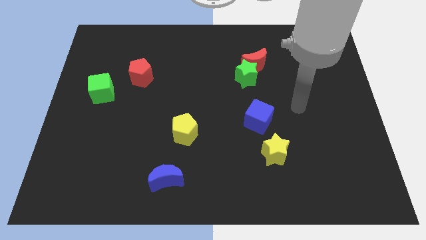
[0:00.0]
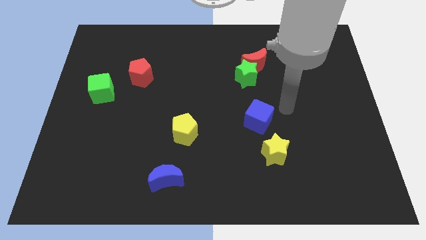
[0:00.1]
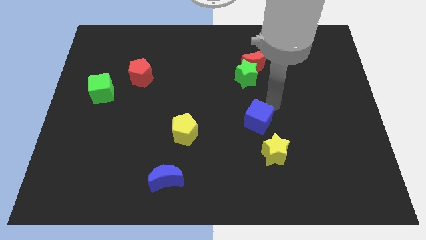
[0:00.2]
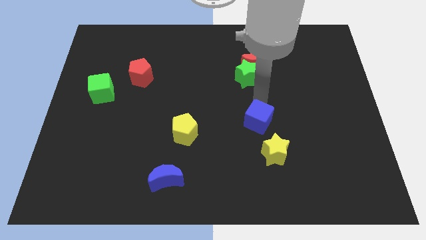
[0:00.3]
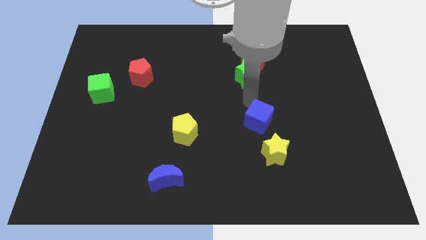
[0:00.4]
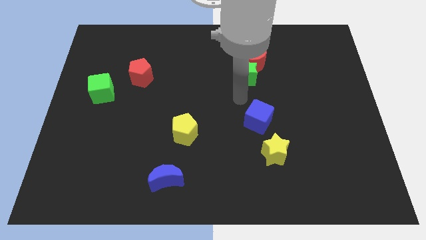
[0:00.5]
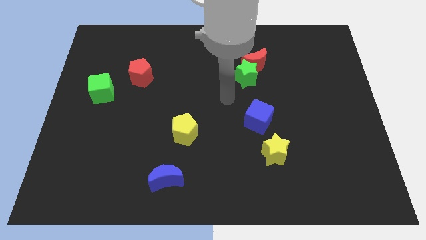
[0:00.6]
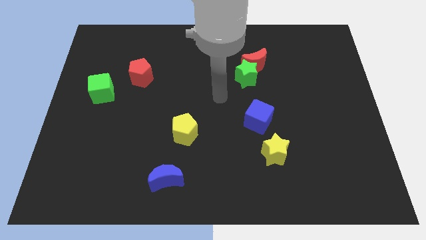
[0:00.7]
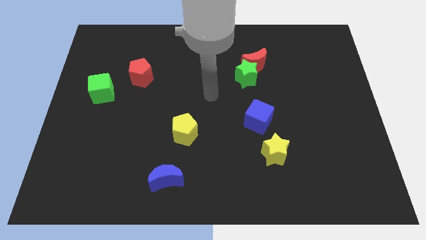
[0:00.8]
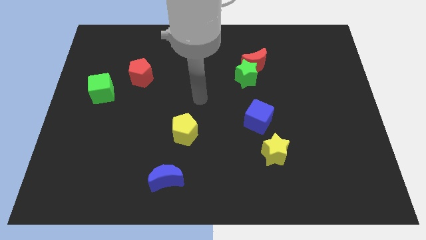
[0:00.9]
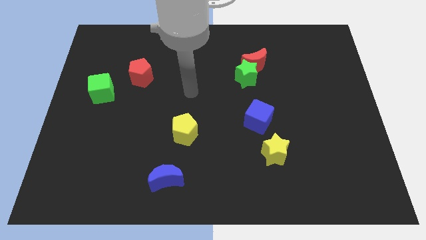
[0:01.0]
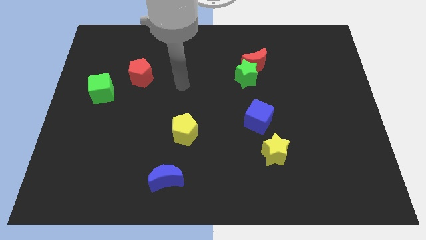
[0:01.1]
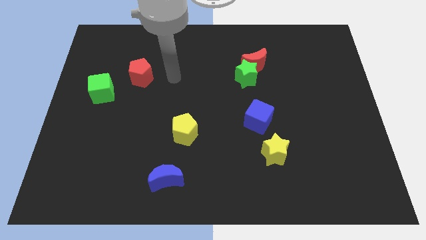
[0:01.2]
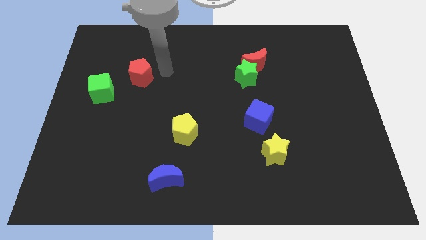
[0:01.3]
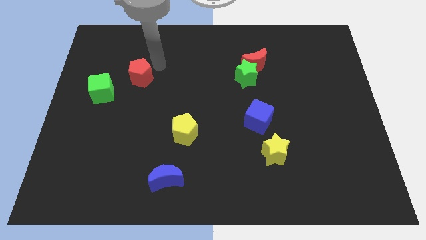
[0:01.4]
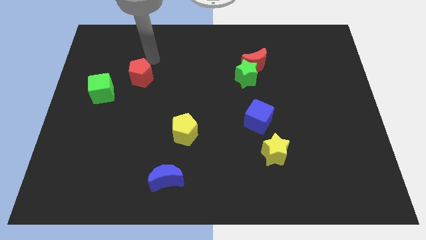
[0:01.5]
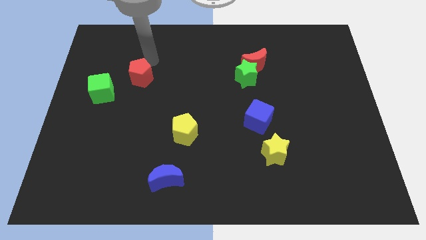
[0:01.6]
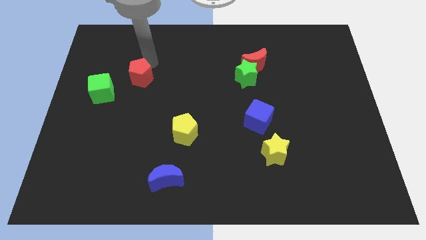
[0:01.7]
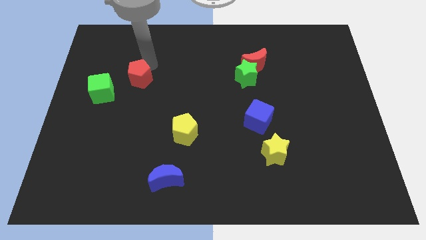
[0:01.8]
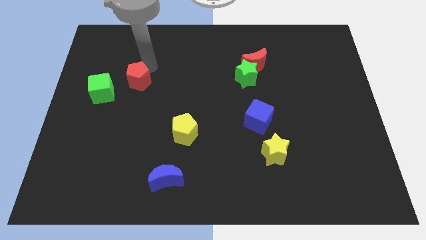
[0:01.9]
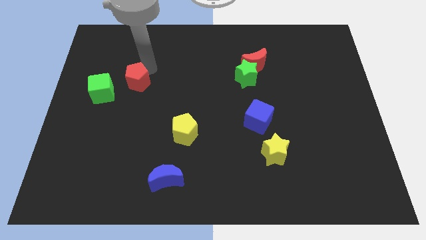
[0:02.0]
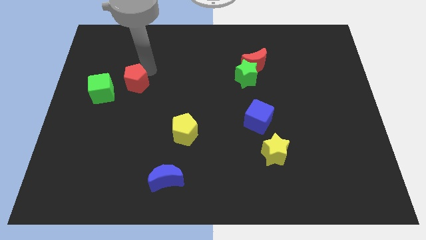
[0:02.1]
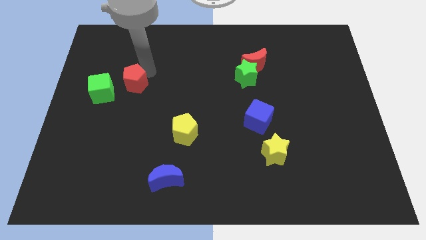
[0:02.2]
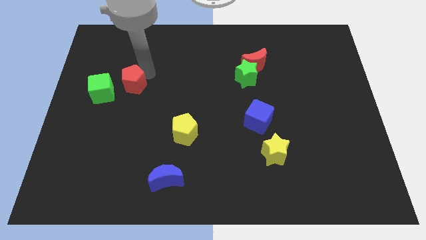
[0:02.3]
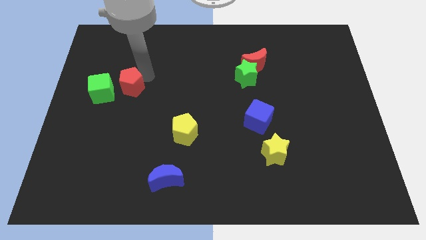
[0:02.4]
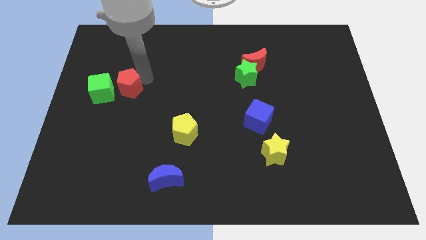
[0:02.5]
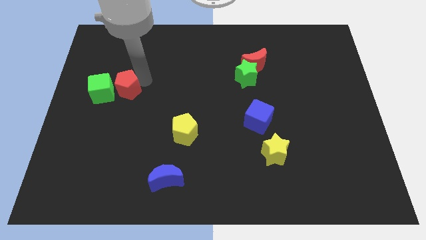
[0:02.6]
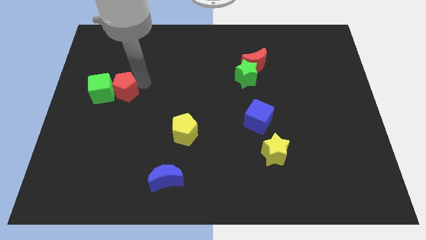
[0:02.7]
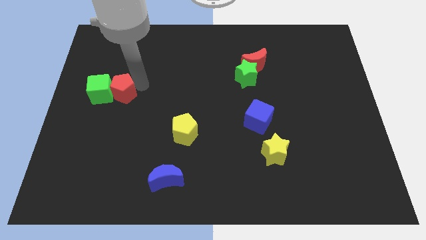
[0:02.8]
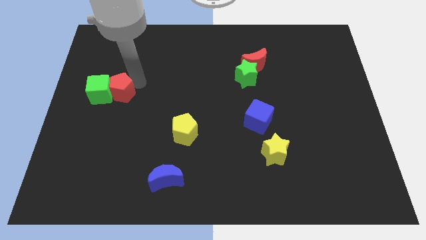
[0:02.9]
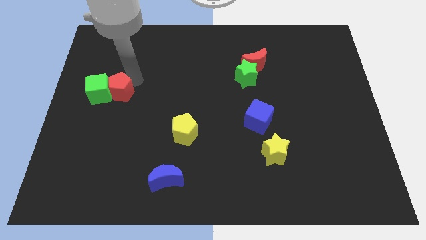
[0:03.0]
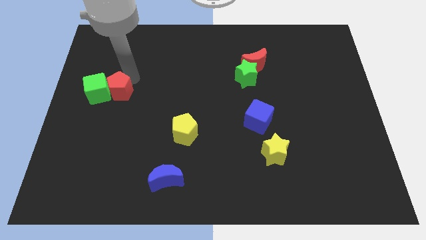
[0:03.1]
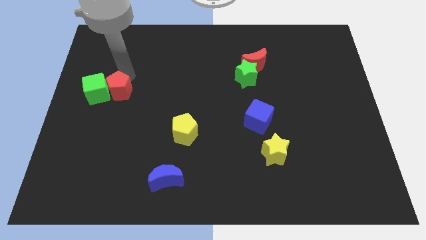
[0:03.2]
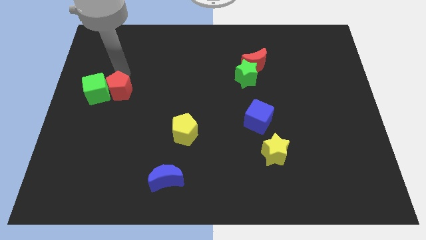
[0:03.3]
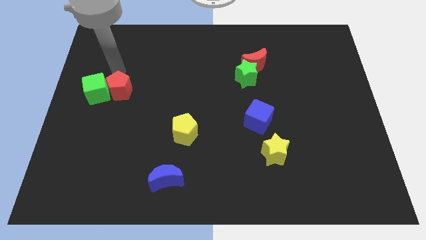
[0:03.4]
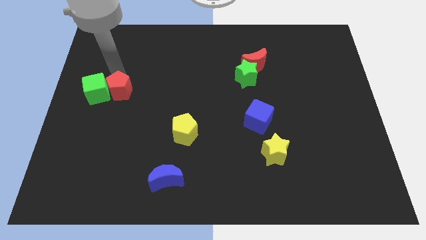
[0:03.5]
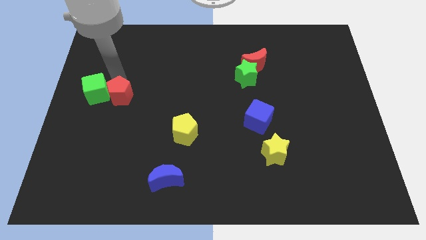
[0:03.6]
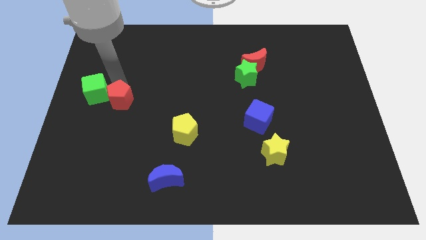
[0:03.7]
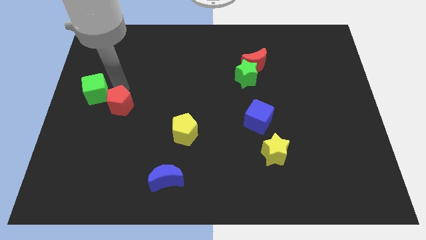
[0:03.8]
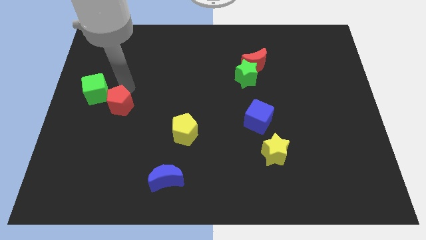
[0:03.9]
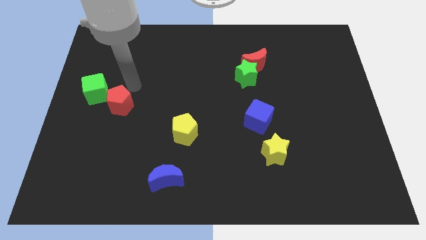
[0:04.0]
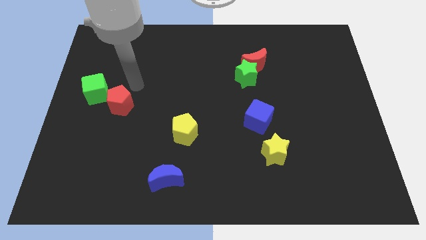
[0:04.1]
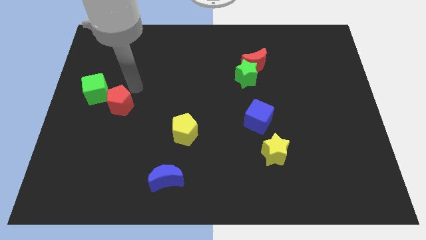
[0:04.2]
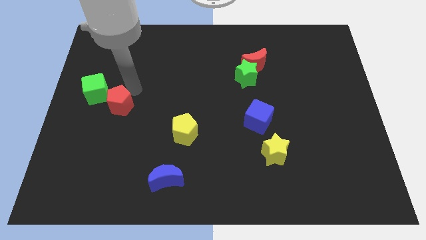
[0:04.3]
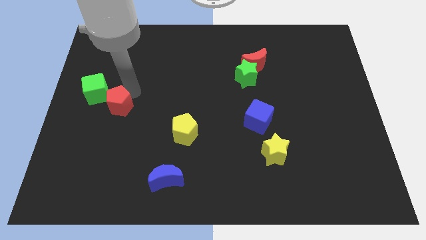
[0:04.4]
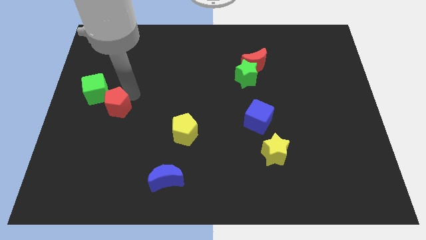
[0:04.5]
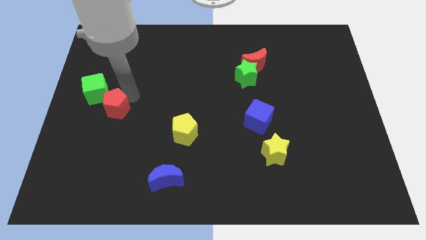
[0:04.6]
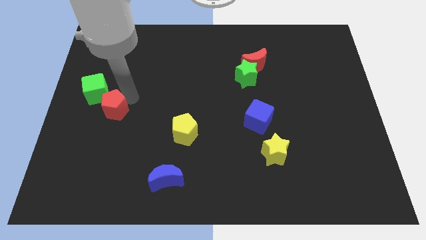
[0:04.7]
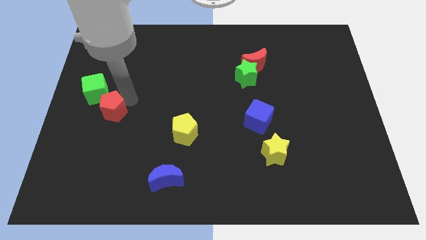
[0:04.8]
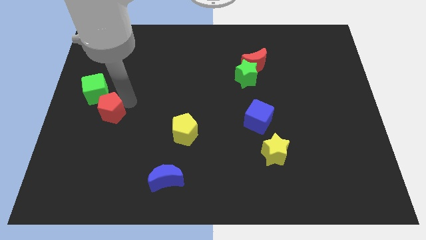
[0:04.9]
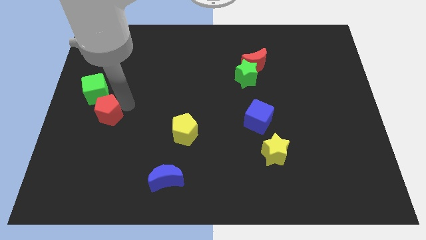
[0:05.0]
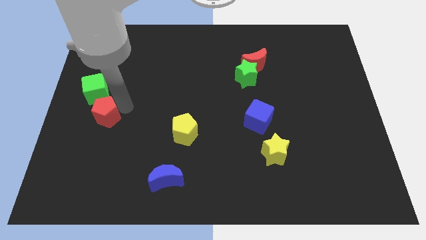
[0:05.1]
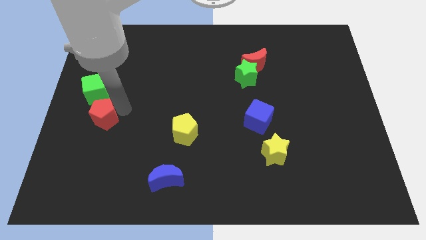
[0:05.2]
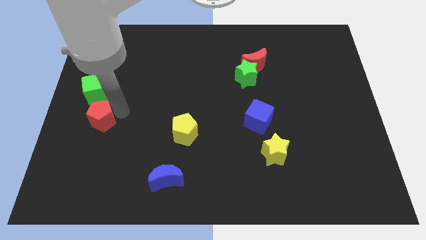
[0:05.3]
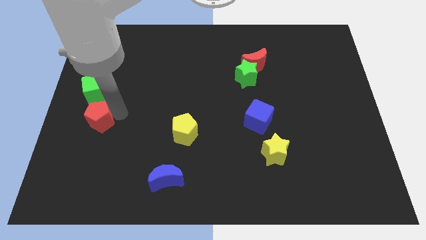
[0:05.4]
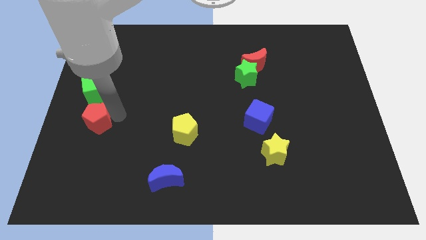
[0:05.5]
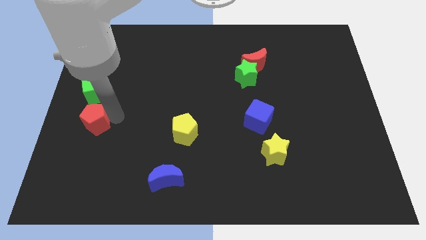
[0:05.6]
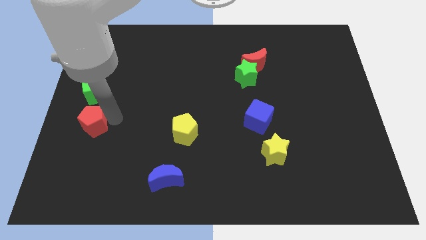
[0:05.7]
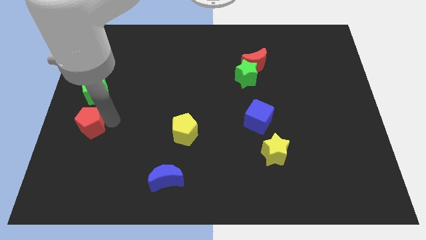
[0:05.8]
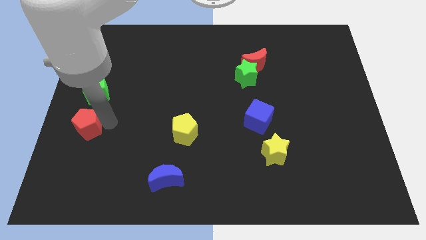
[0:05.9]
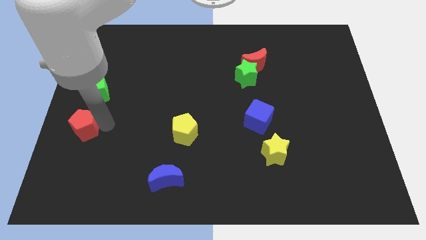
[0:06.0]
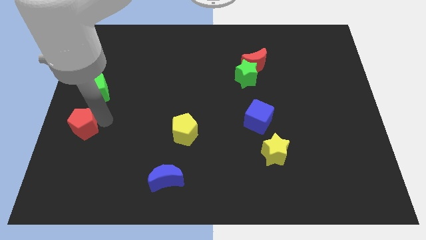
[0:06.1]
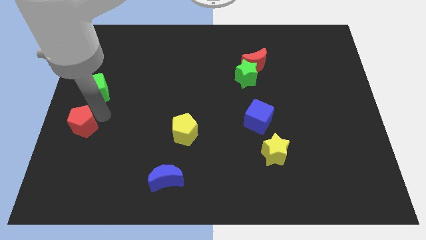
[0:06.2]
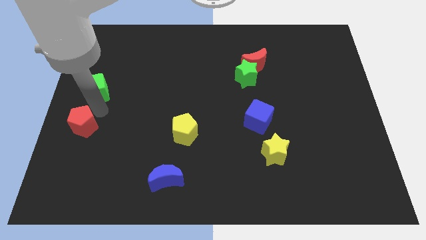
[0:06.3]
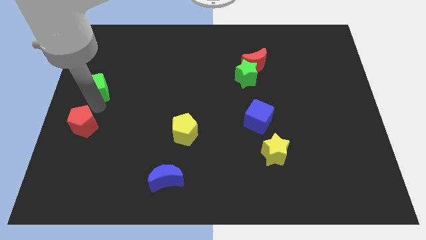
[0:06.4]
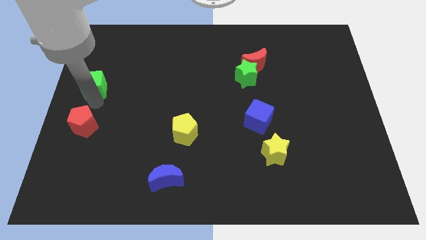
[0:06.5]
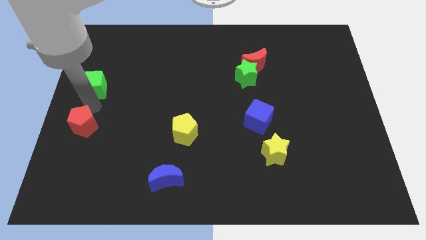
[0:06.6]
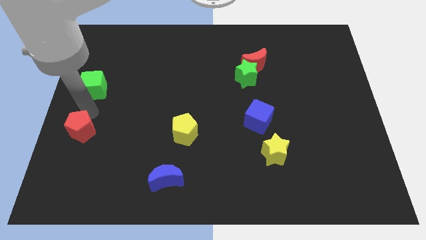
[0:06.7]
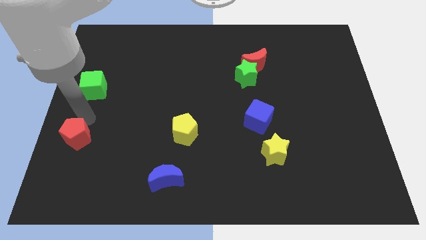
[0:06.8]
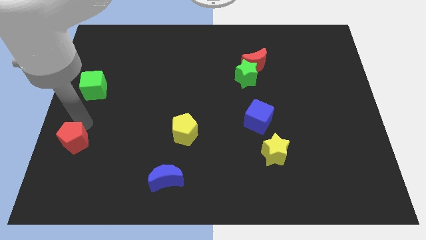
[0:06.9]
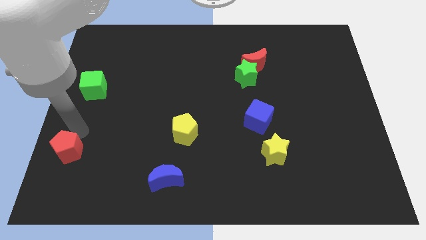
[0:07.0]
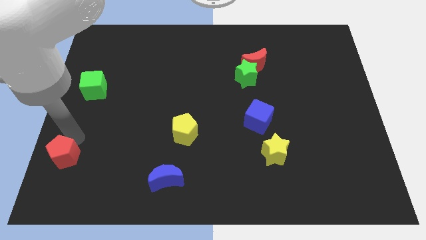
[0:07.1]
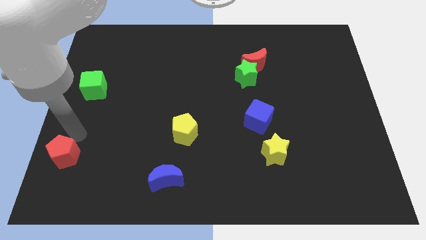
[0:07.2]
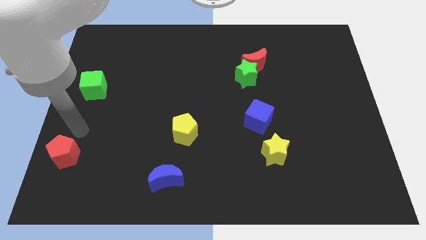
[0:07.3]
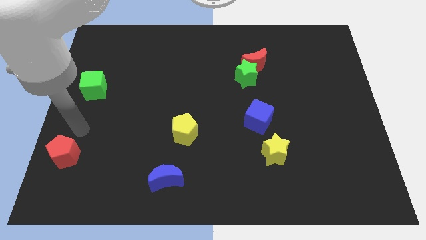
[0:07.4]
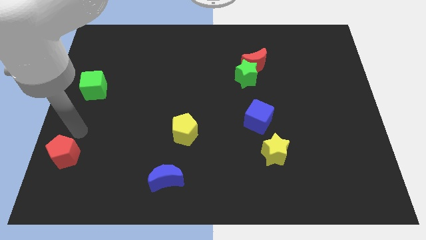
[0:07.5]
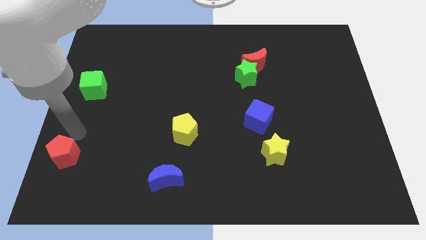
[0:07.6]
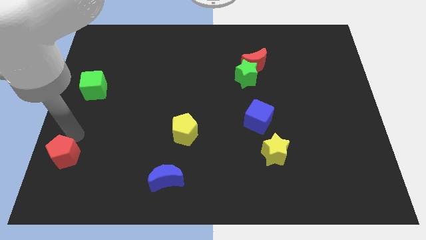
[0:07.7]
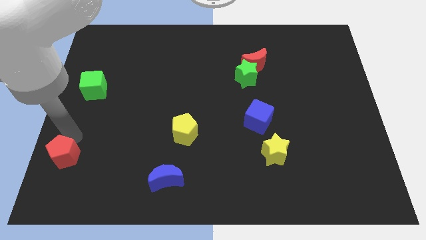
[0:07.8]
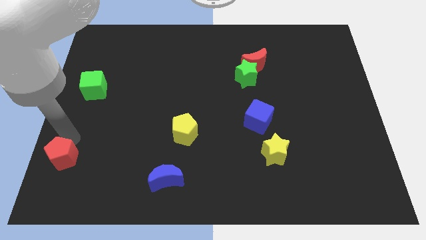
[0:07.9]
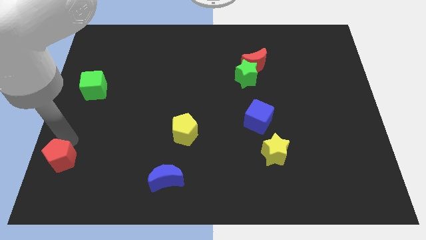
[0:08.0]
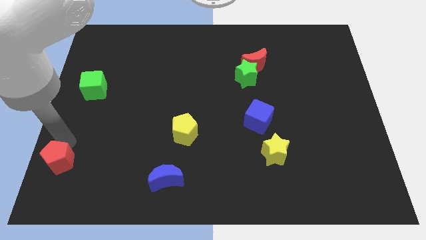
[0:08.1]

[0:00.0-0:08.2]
move the red pentagon to the bottom left
